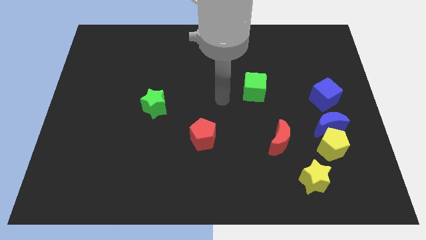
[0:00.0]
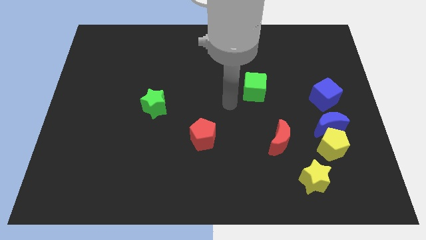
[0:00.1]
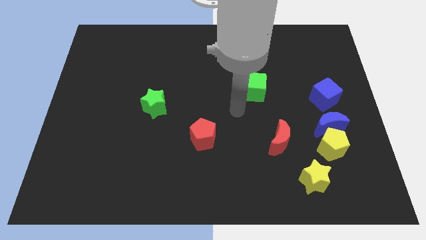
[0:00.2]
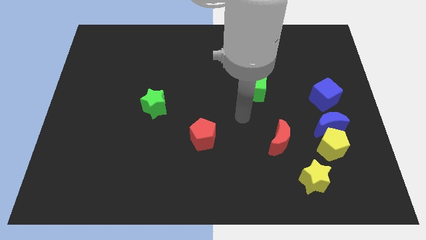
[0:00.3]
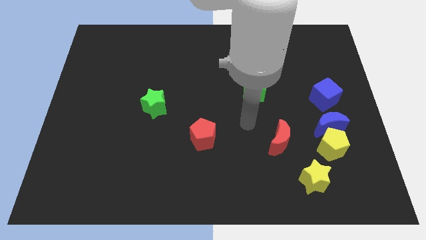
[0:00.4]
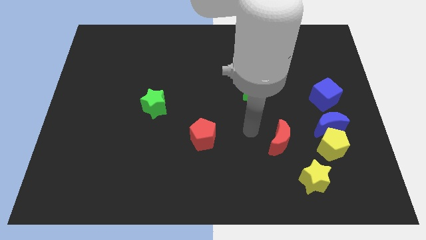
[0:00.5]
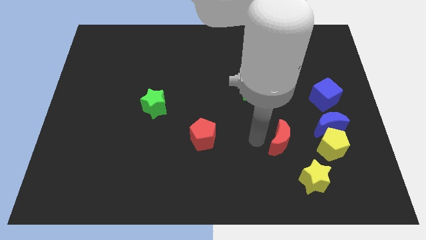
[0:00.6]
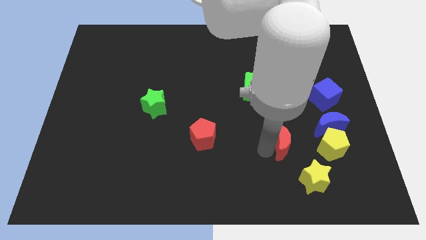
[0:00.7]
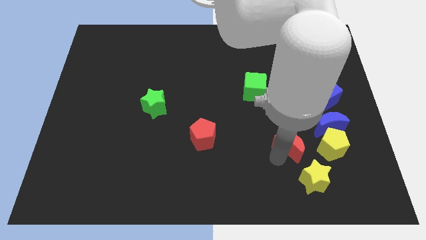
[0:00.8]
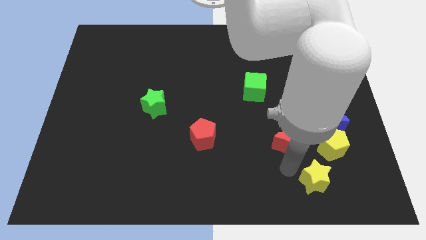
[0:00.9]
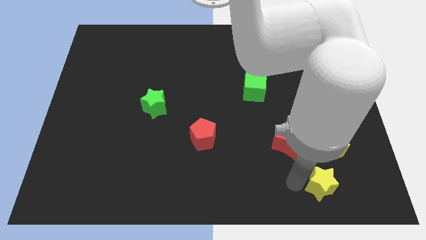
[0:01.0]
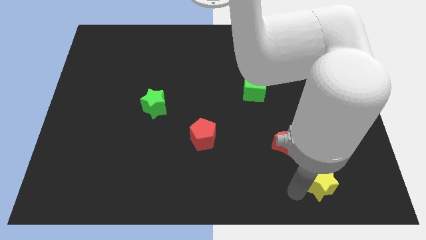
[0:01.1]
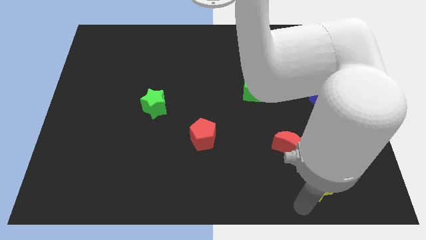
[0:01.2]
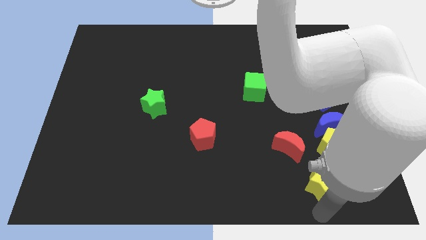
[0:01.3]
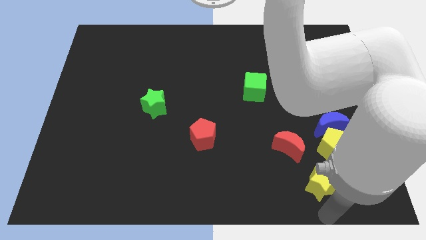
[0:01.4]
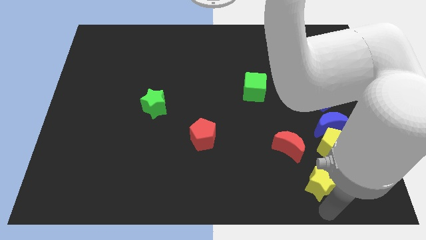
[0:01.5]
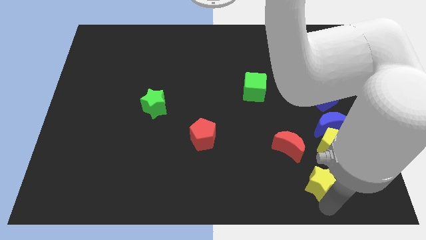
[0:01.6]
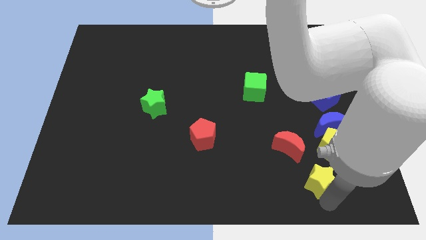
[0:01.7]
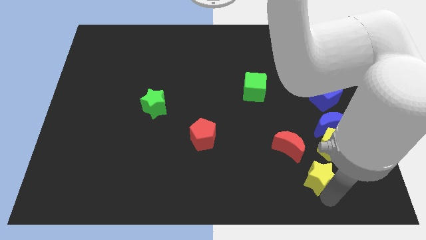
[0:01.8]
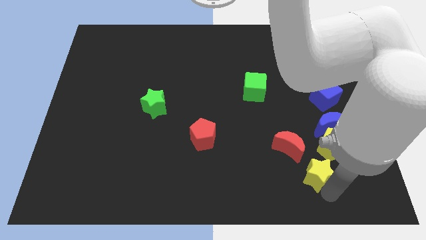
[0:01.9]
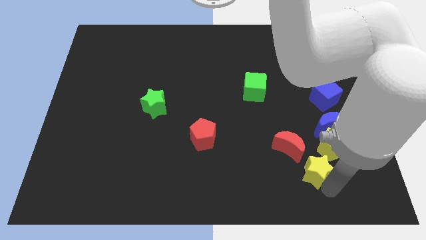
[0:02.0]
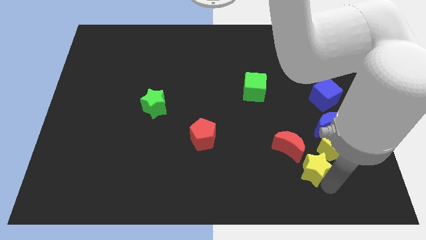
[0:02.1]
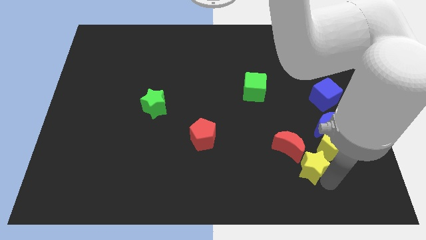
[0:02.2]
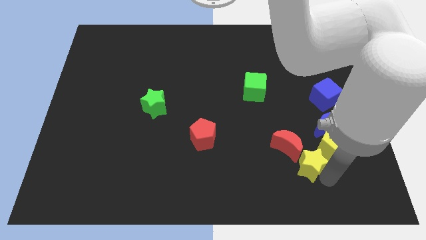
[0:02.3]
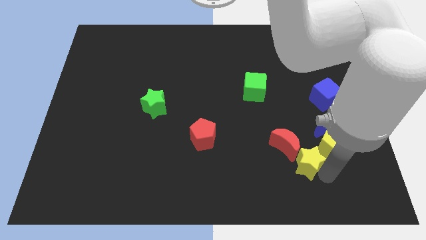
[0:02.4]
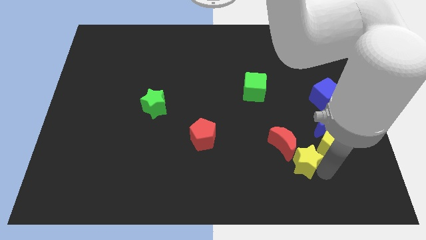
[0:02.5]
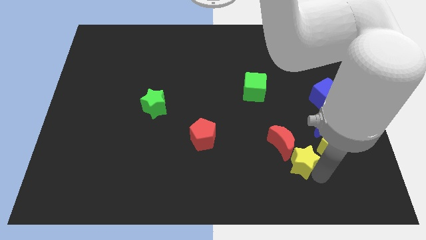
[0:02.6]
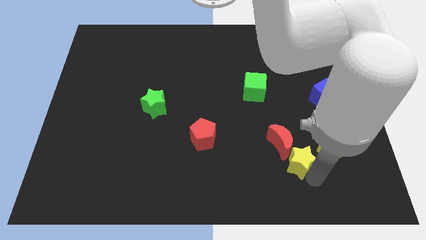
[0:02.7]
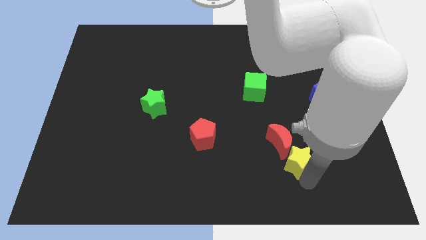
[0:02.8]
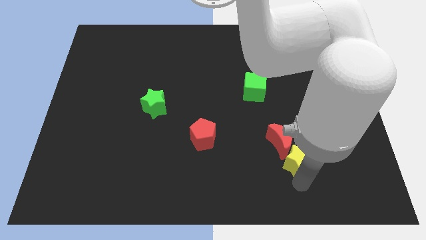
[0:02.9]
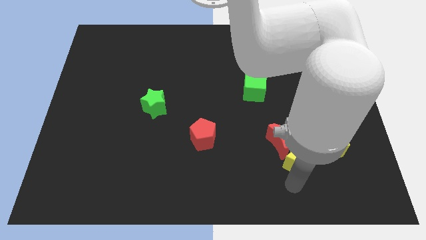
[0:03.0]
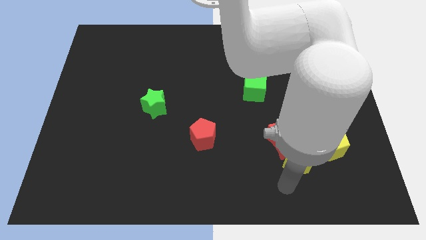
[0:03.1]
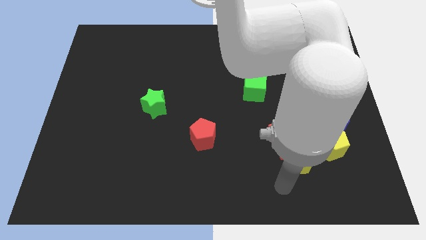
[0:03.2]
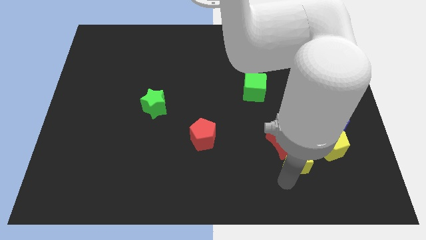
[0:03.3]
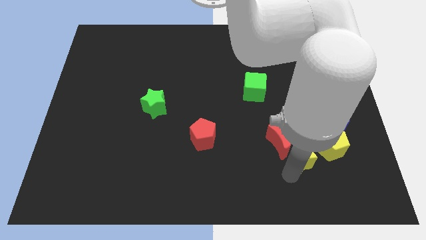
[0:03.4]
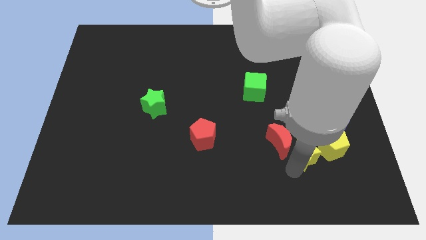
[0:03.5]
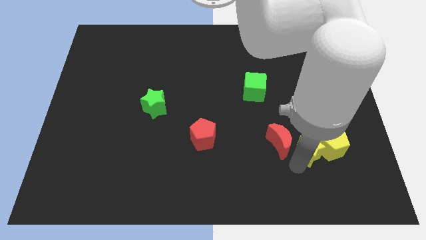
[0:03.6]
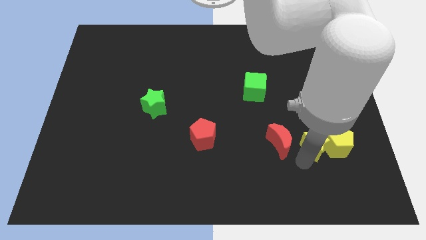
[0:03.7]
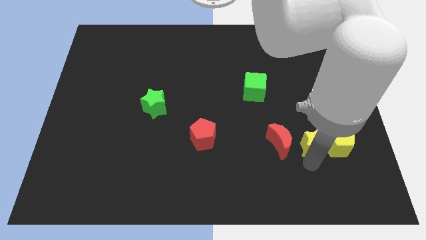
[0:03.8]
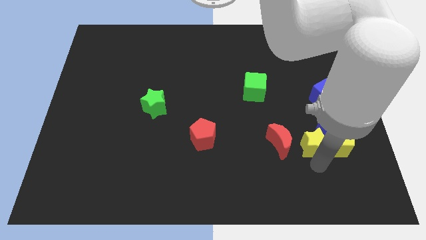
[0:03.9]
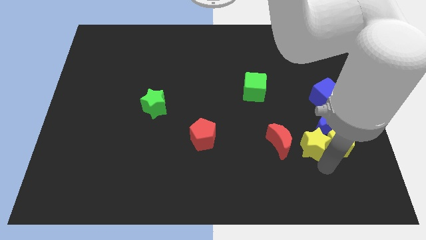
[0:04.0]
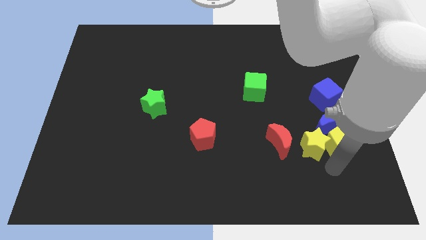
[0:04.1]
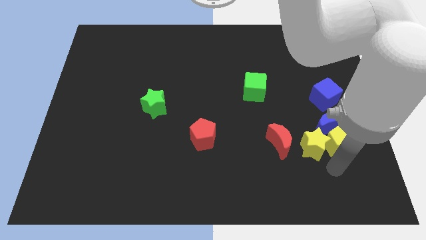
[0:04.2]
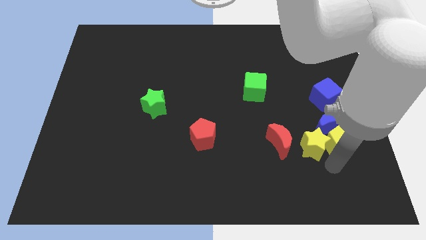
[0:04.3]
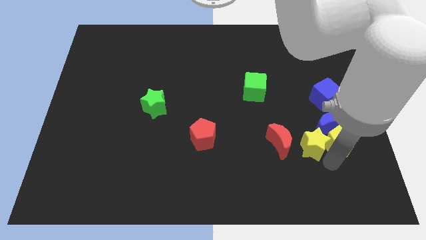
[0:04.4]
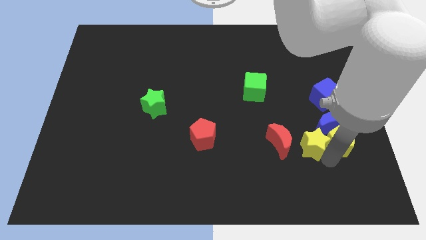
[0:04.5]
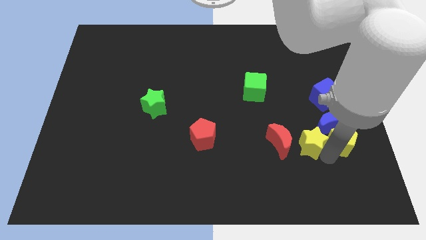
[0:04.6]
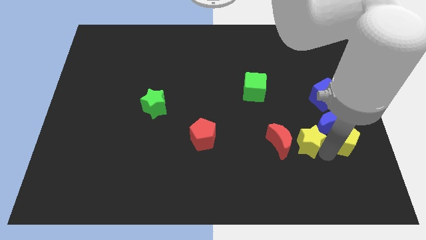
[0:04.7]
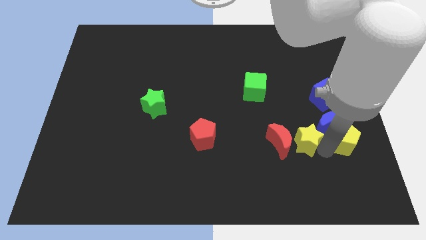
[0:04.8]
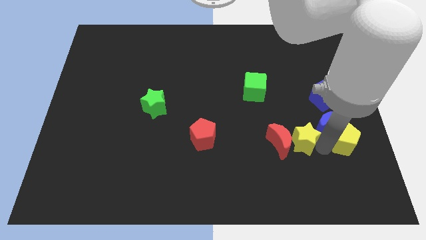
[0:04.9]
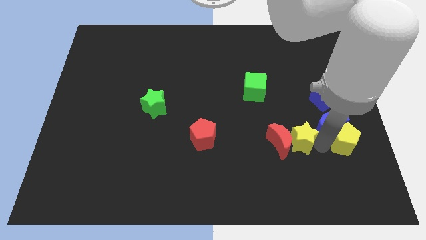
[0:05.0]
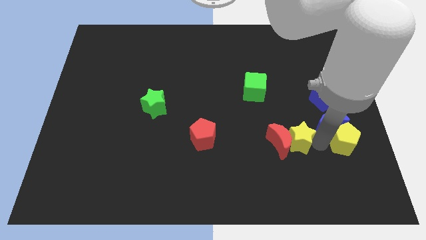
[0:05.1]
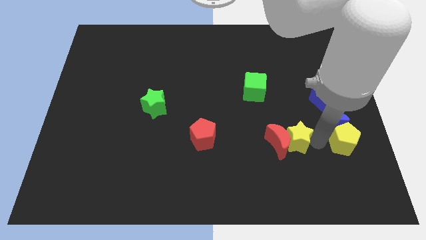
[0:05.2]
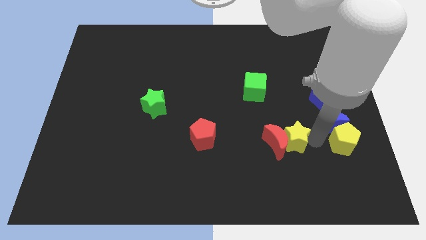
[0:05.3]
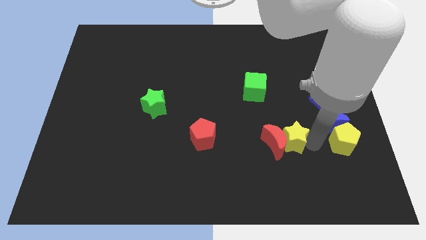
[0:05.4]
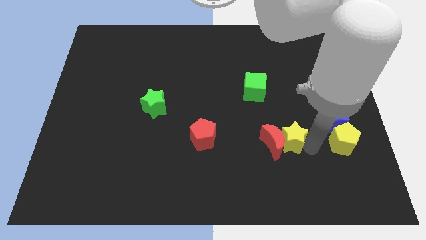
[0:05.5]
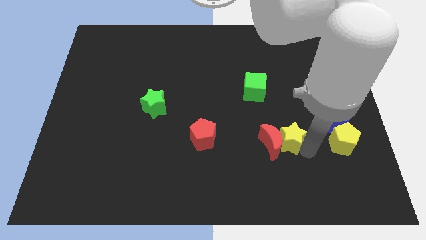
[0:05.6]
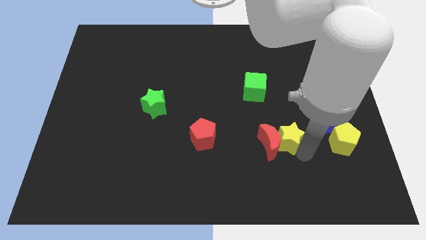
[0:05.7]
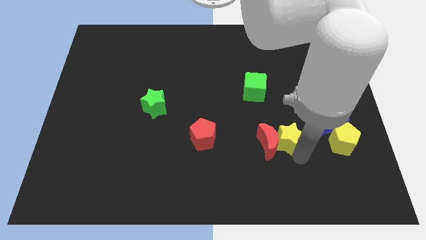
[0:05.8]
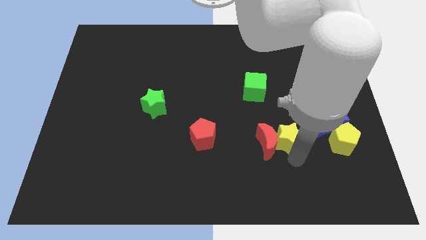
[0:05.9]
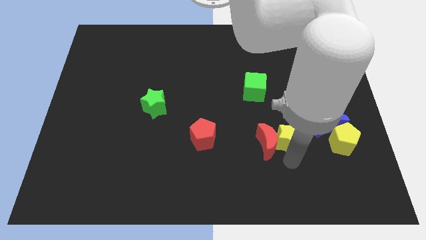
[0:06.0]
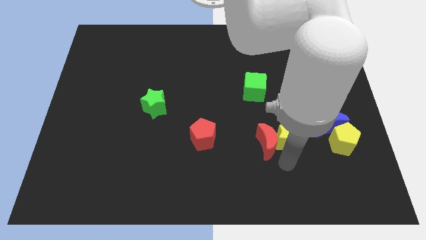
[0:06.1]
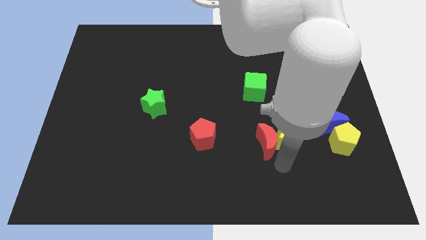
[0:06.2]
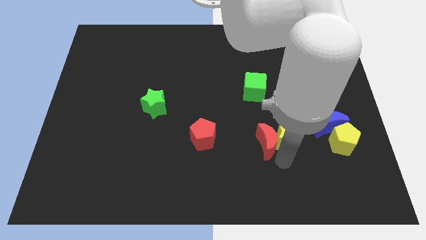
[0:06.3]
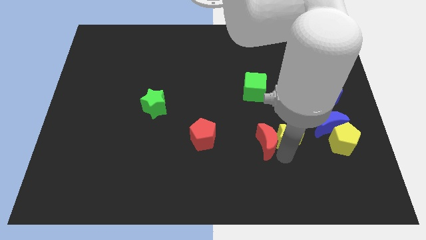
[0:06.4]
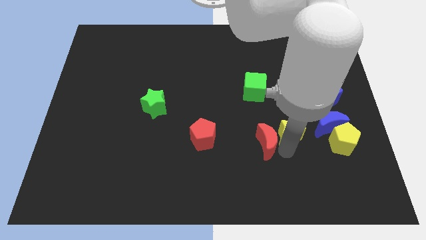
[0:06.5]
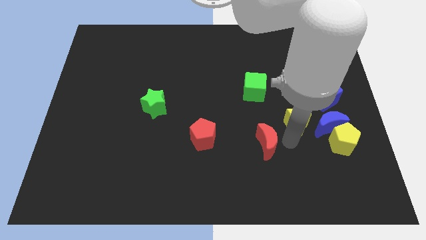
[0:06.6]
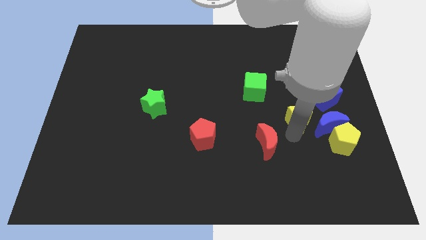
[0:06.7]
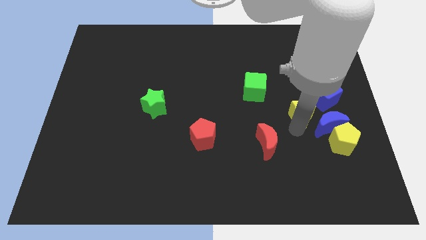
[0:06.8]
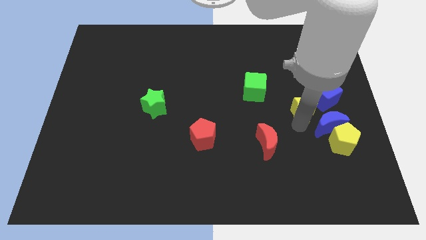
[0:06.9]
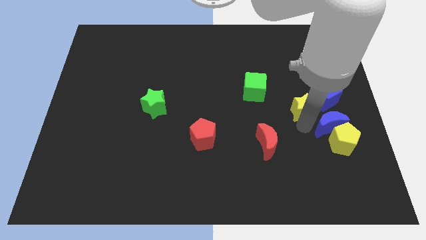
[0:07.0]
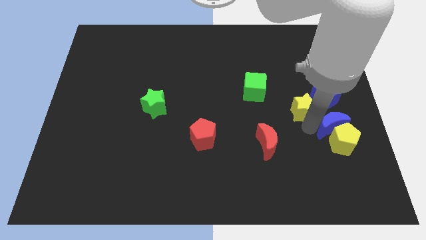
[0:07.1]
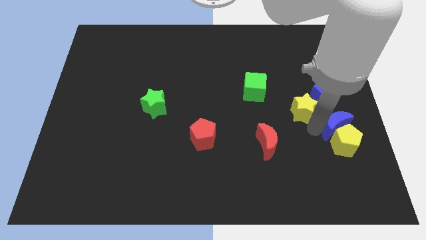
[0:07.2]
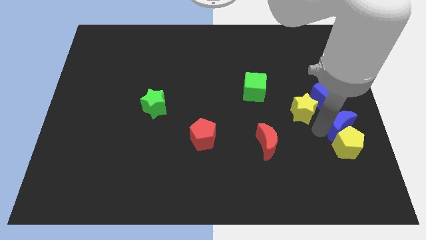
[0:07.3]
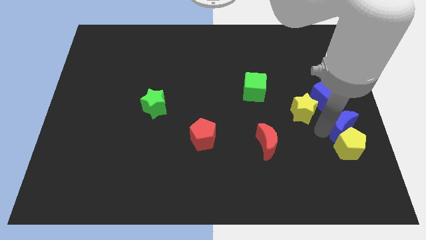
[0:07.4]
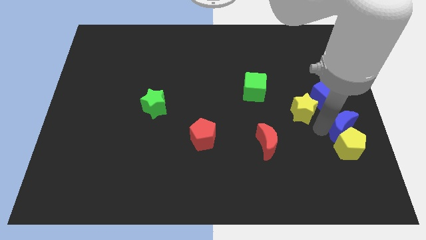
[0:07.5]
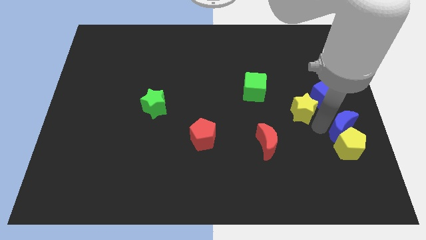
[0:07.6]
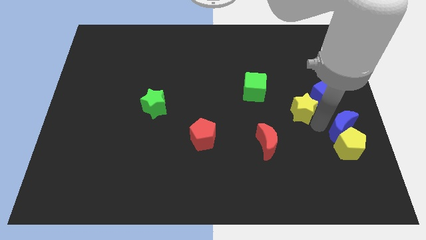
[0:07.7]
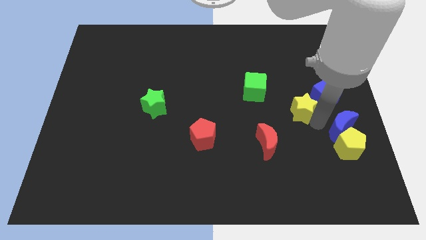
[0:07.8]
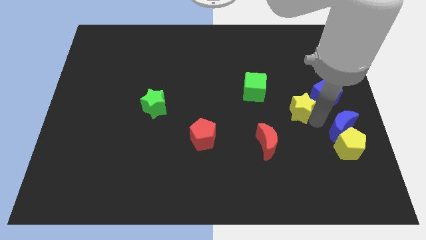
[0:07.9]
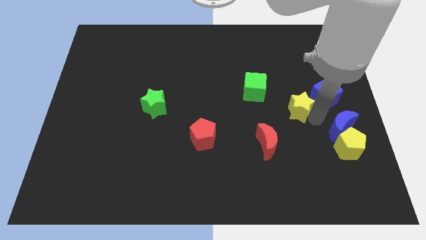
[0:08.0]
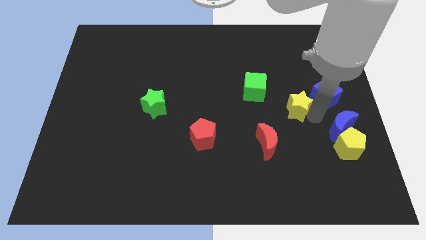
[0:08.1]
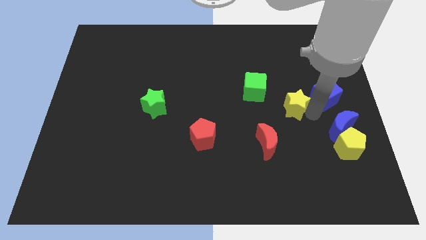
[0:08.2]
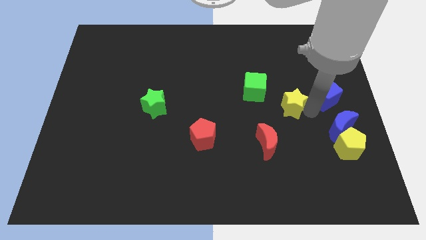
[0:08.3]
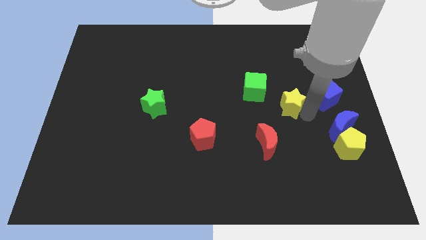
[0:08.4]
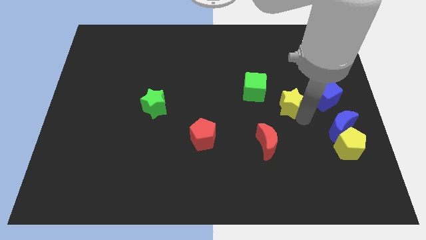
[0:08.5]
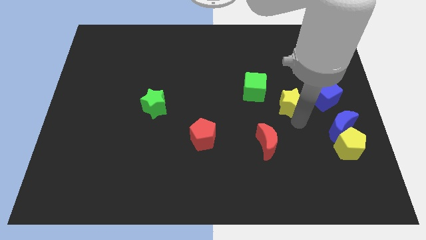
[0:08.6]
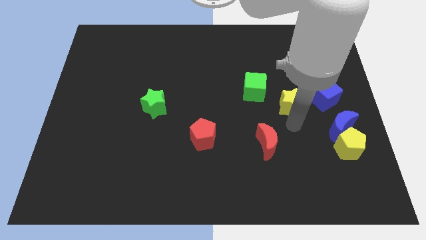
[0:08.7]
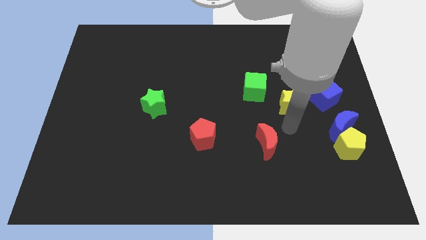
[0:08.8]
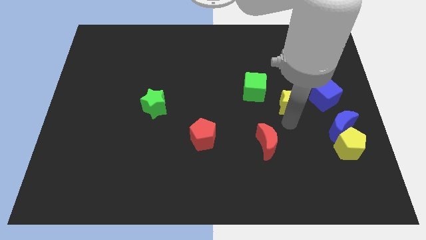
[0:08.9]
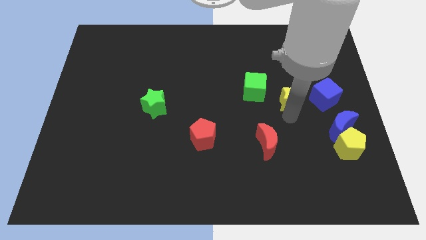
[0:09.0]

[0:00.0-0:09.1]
slide the yellow star up
